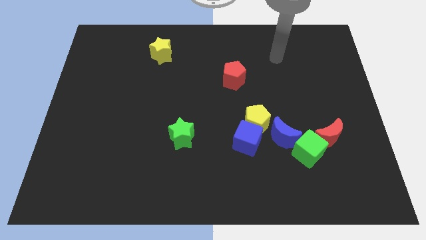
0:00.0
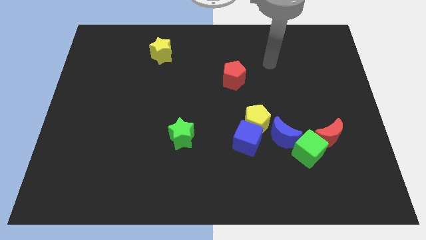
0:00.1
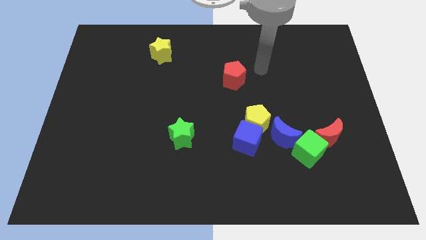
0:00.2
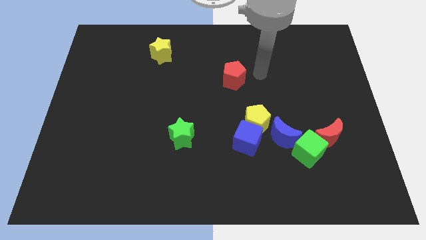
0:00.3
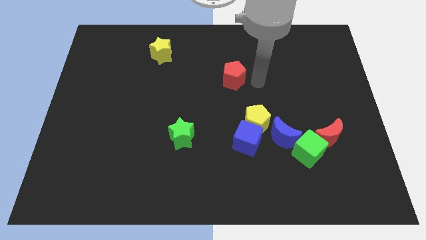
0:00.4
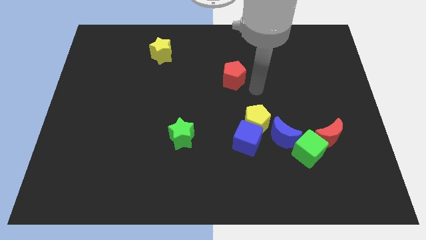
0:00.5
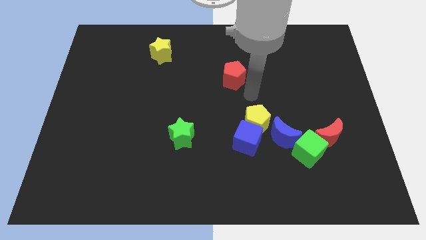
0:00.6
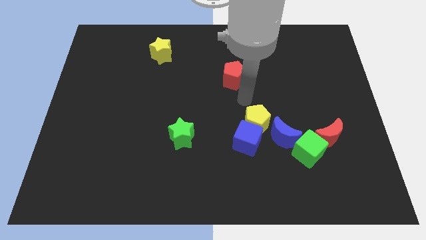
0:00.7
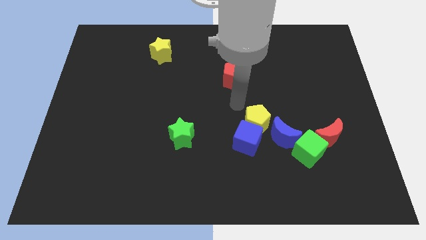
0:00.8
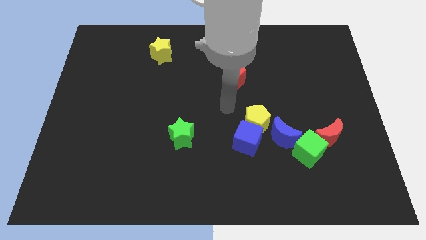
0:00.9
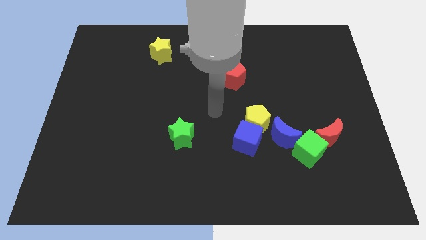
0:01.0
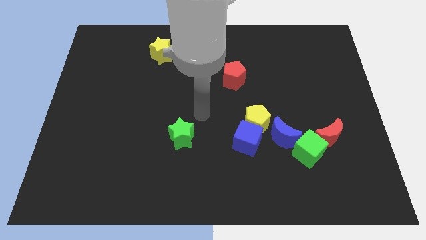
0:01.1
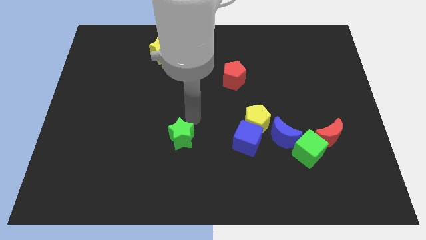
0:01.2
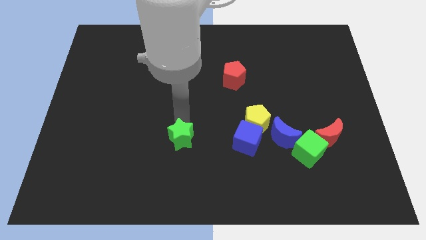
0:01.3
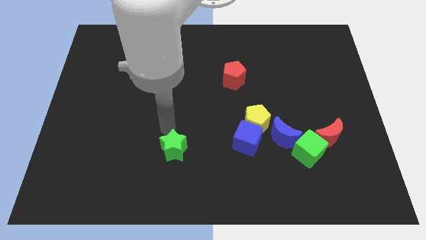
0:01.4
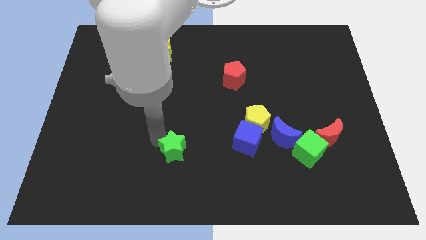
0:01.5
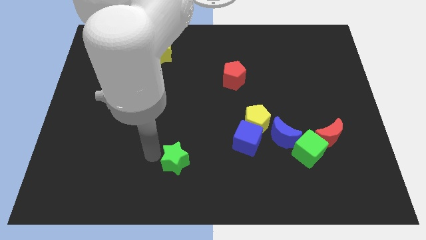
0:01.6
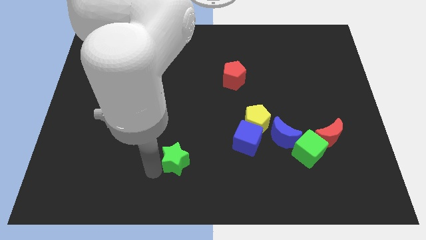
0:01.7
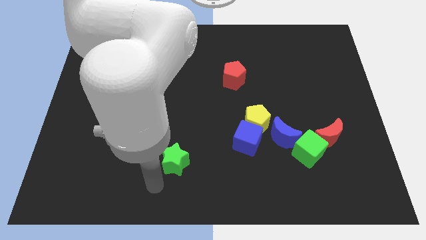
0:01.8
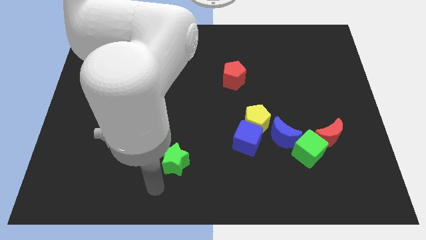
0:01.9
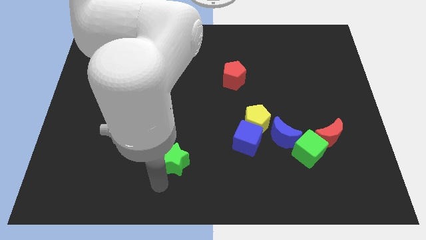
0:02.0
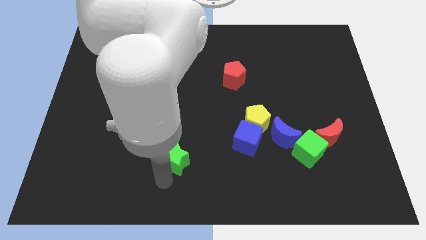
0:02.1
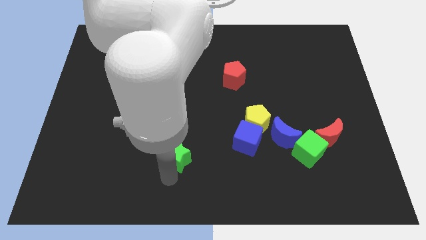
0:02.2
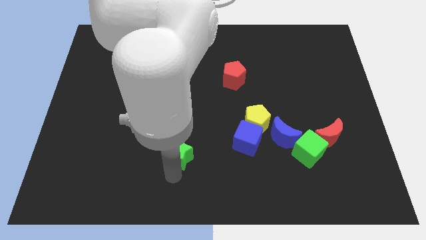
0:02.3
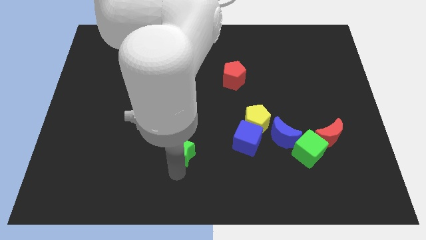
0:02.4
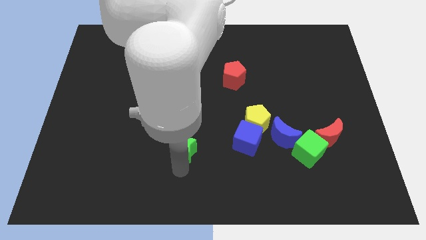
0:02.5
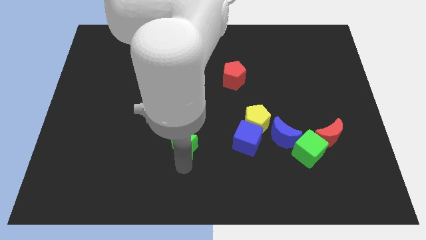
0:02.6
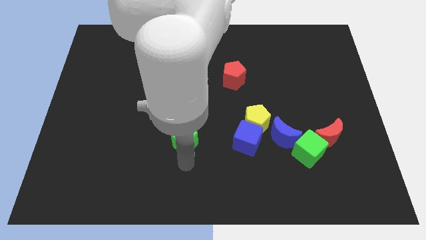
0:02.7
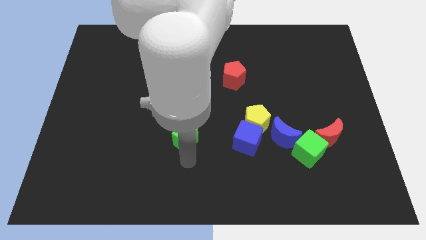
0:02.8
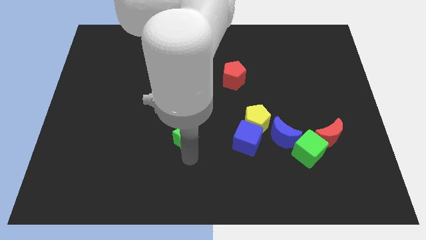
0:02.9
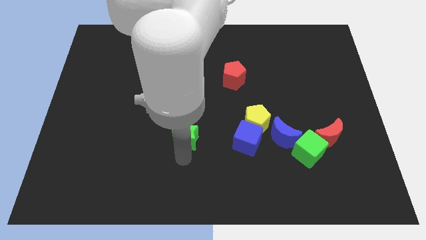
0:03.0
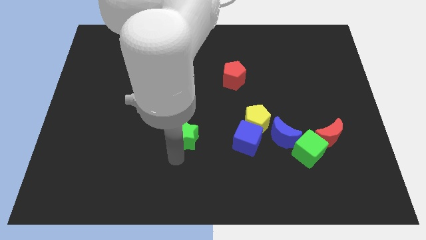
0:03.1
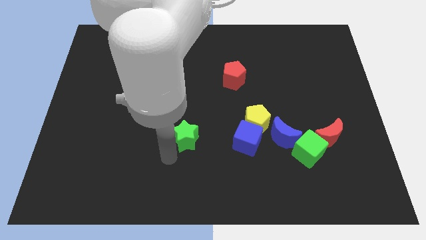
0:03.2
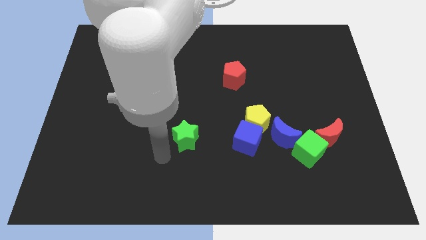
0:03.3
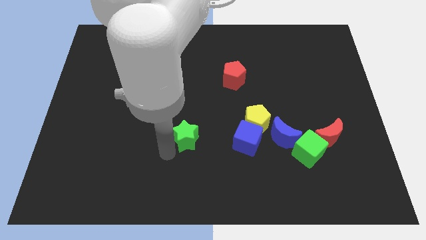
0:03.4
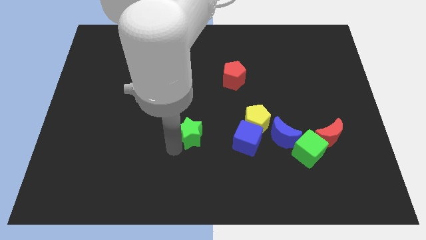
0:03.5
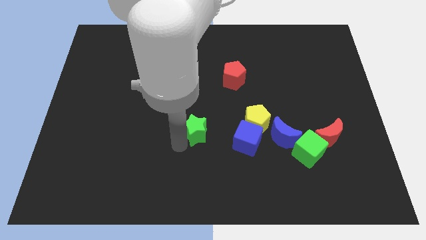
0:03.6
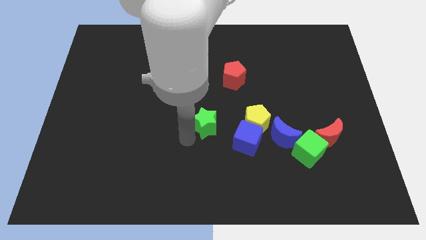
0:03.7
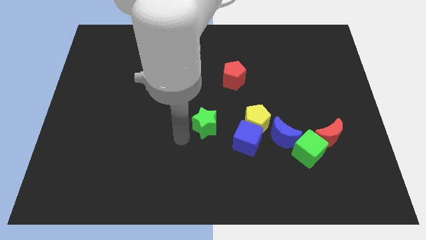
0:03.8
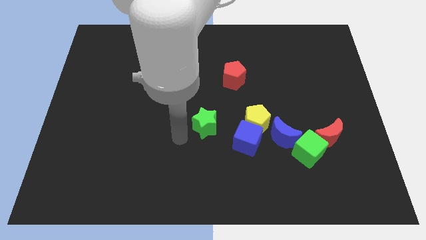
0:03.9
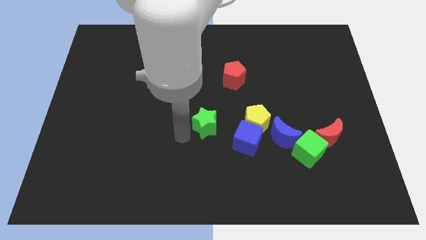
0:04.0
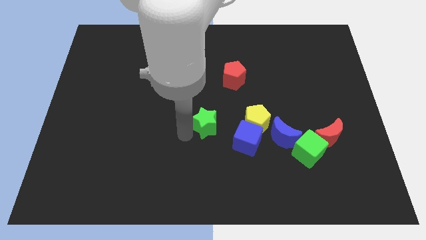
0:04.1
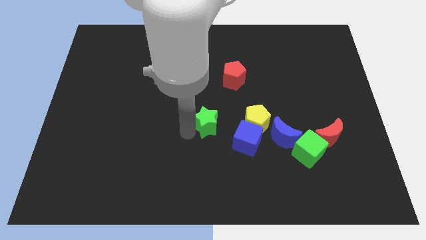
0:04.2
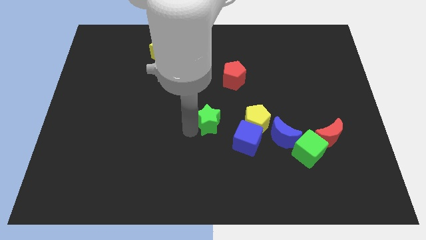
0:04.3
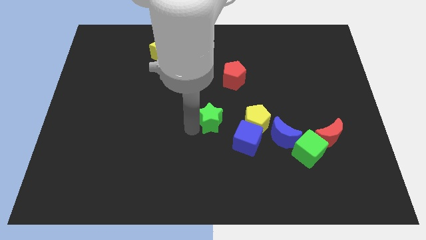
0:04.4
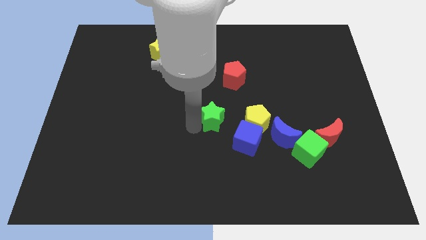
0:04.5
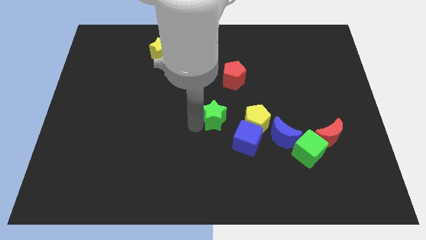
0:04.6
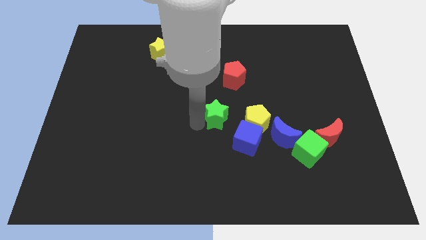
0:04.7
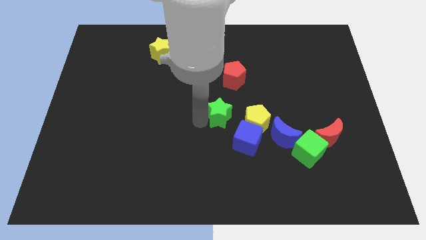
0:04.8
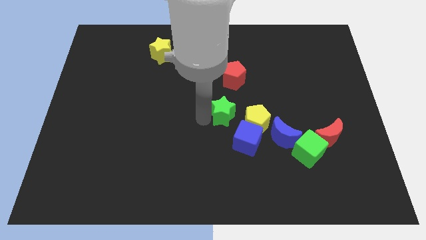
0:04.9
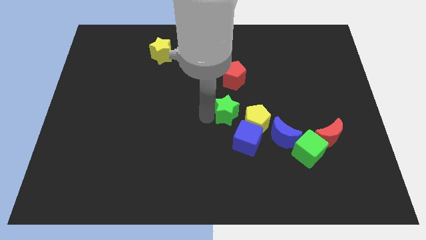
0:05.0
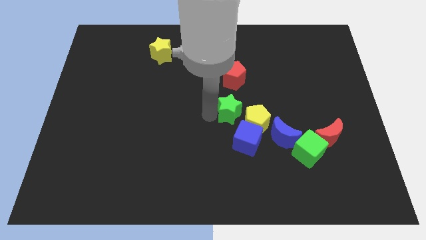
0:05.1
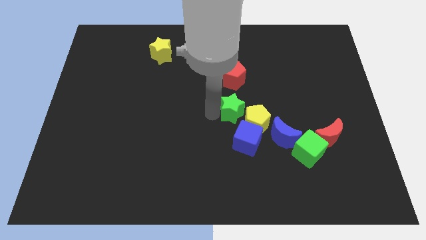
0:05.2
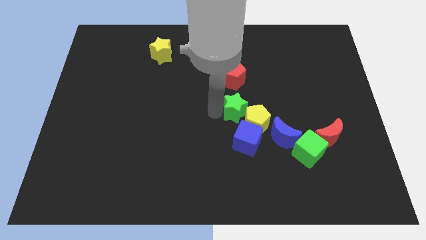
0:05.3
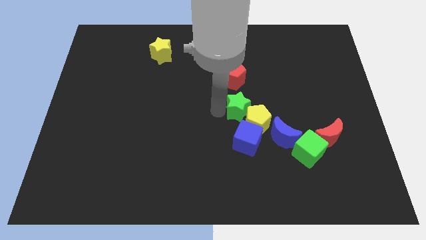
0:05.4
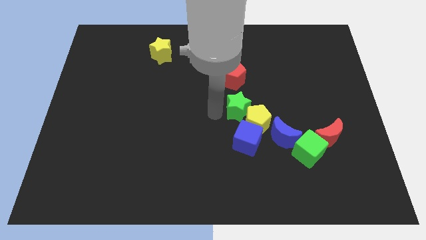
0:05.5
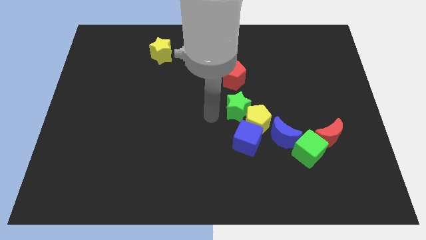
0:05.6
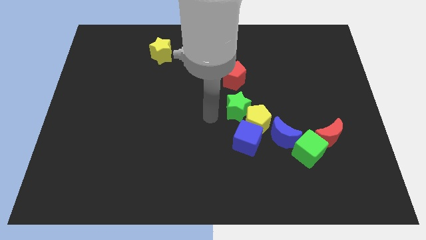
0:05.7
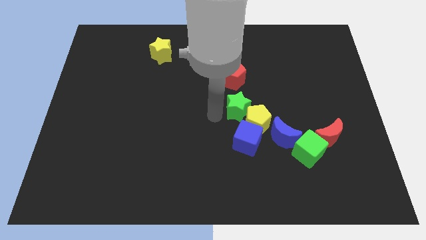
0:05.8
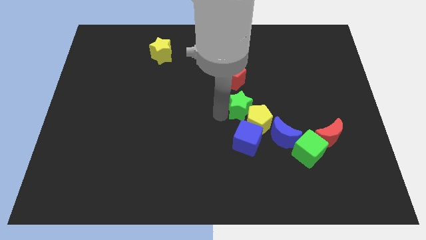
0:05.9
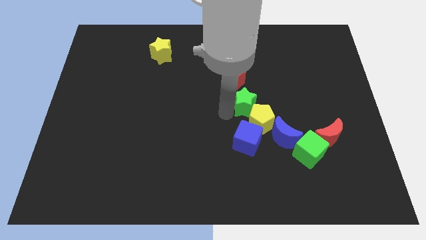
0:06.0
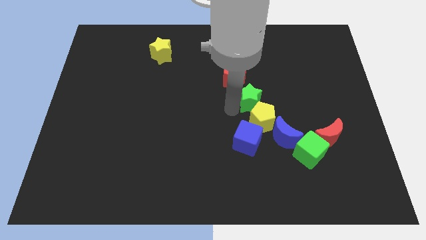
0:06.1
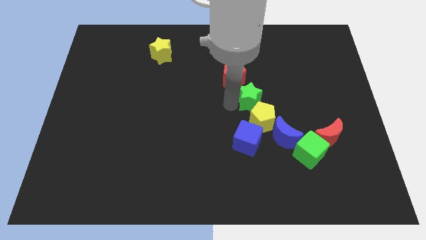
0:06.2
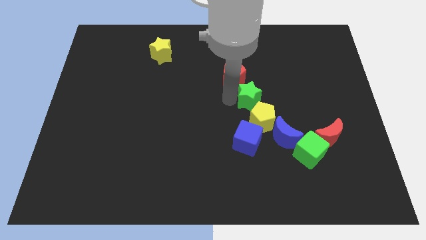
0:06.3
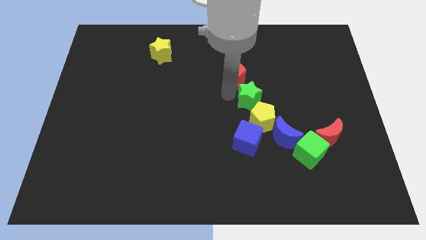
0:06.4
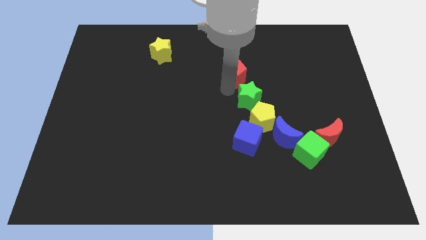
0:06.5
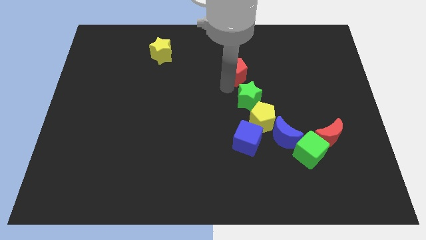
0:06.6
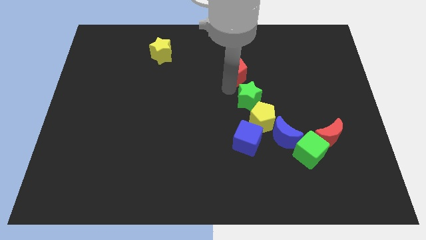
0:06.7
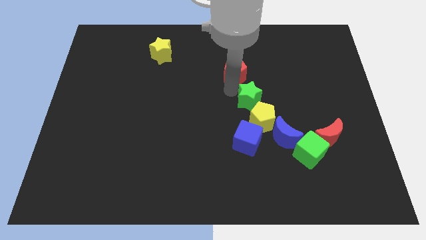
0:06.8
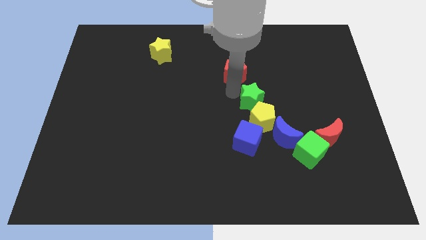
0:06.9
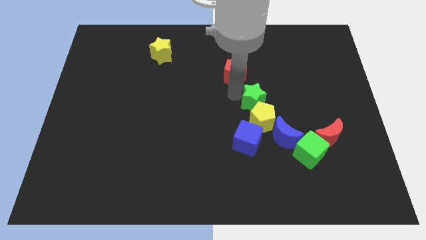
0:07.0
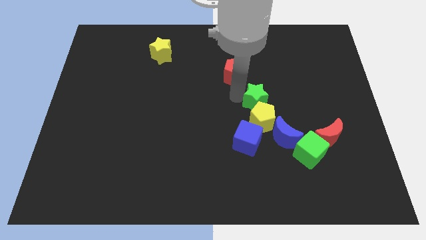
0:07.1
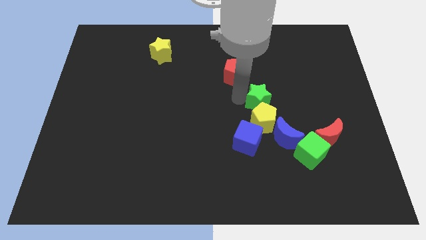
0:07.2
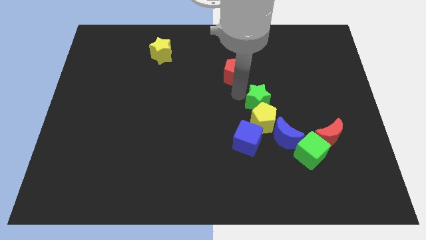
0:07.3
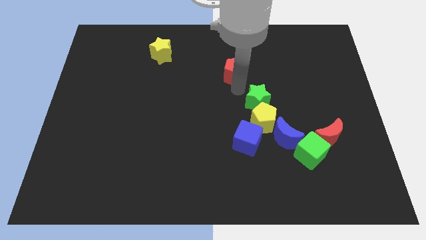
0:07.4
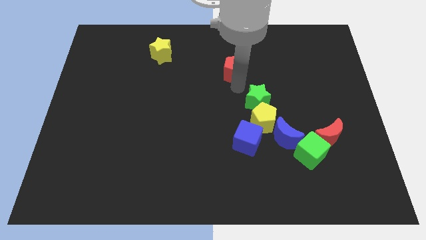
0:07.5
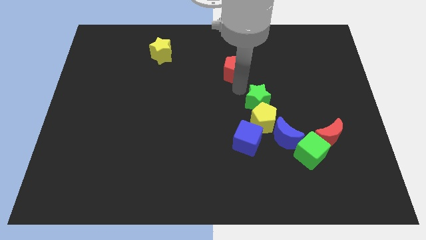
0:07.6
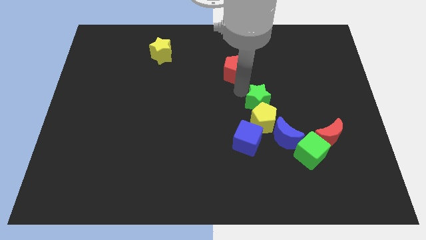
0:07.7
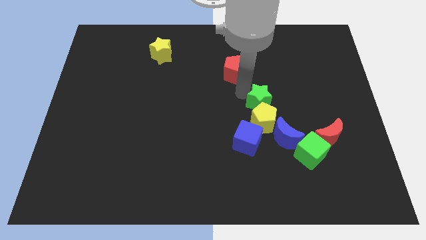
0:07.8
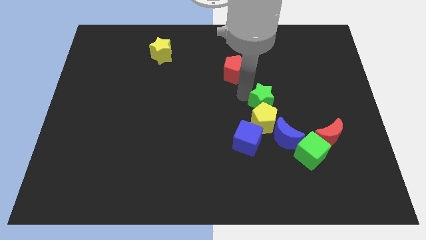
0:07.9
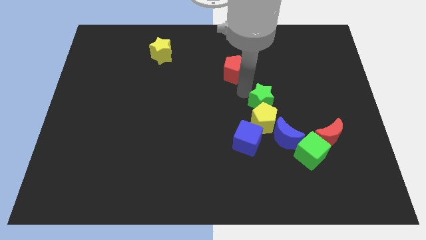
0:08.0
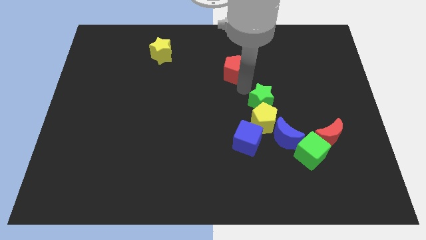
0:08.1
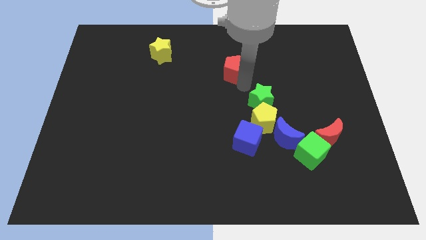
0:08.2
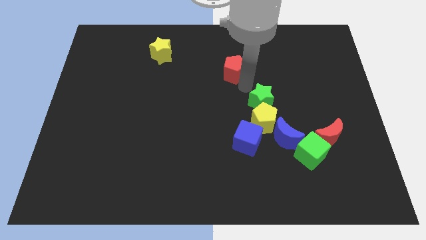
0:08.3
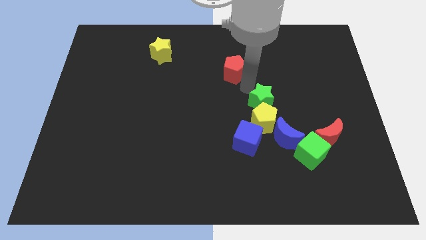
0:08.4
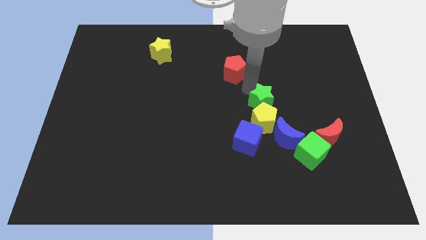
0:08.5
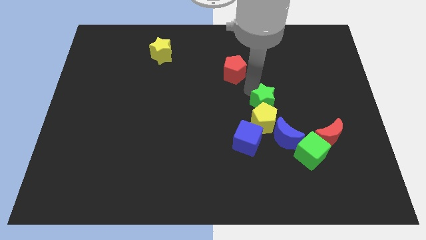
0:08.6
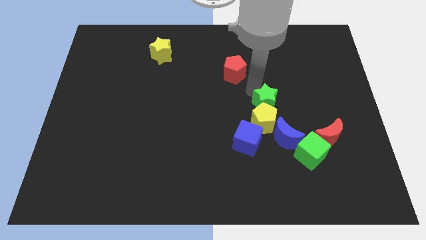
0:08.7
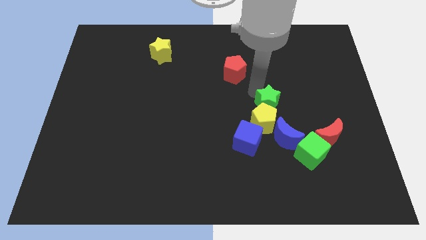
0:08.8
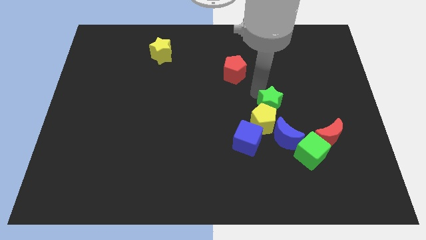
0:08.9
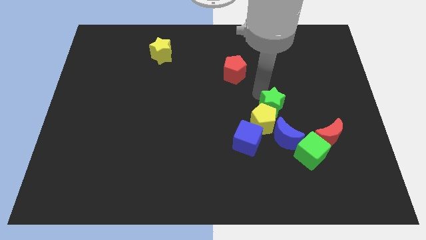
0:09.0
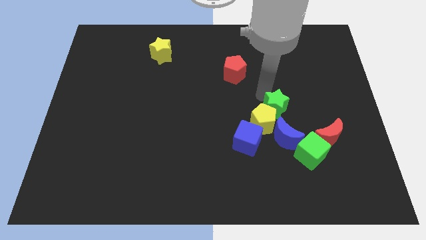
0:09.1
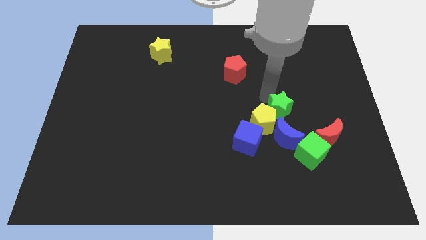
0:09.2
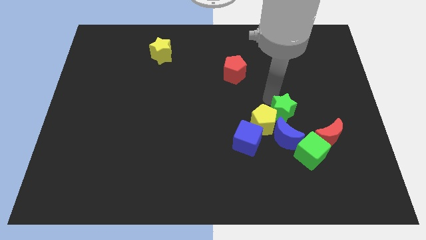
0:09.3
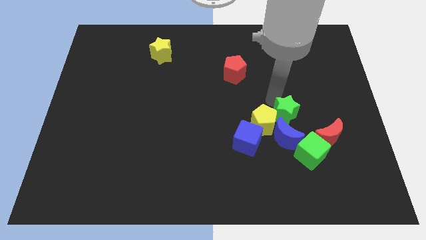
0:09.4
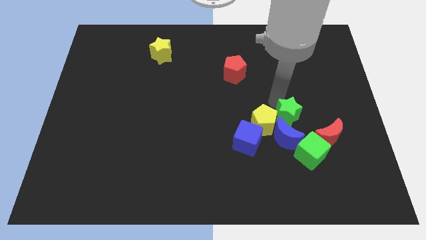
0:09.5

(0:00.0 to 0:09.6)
slide the green star next to the blue moon
